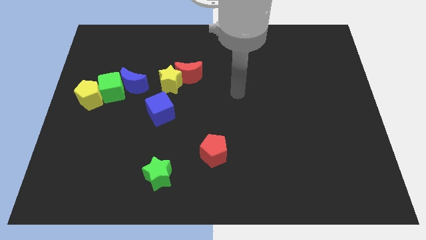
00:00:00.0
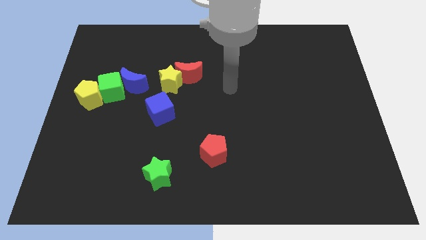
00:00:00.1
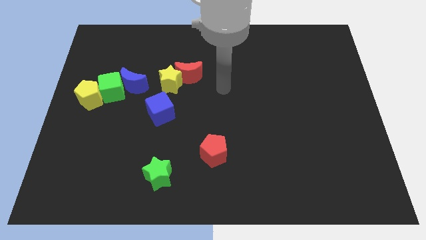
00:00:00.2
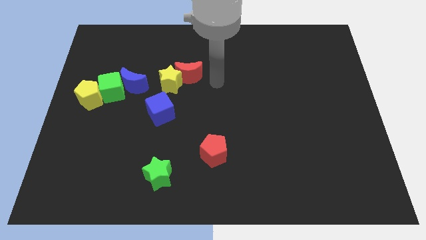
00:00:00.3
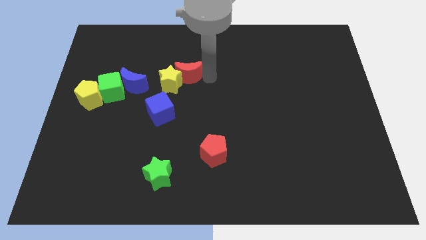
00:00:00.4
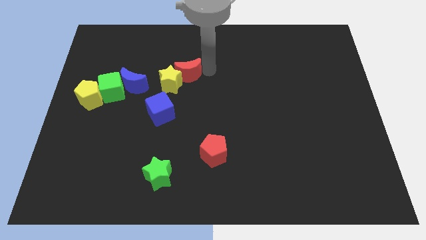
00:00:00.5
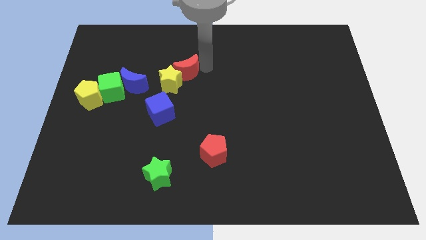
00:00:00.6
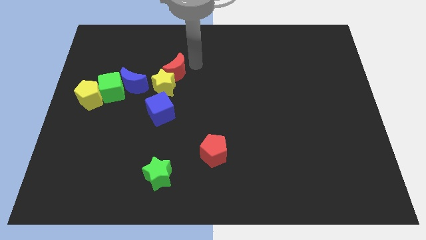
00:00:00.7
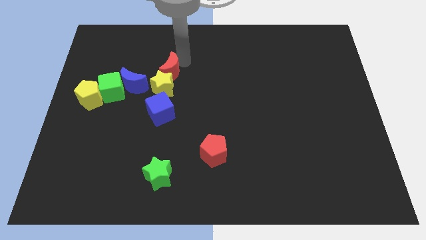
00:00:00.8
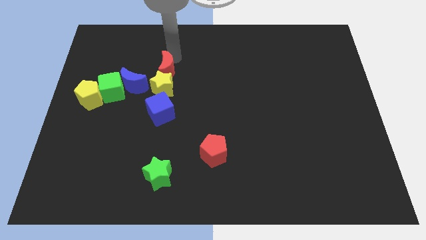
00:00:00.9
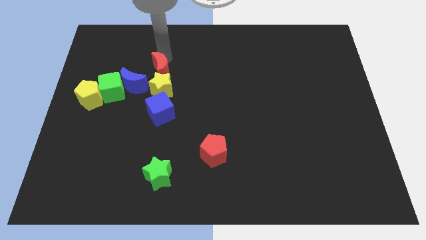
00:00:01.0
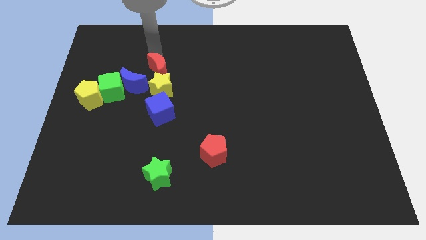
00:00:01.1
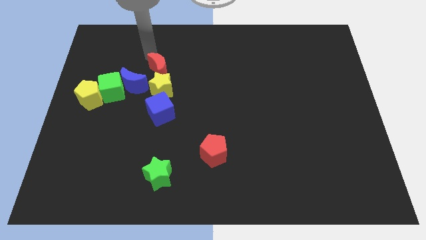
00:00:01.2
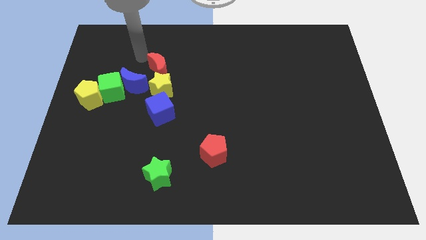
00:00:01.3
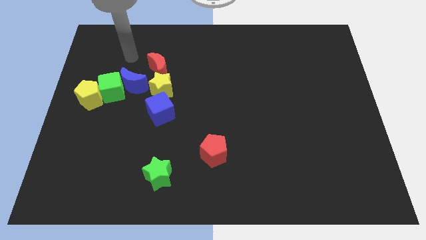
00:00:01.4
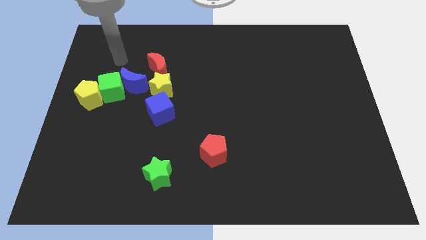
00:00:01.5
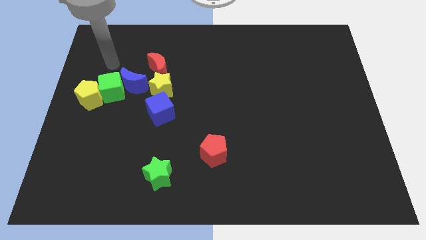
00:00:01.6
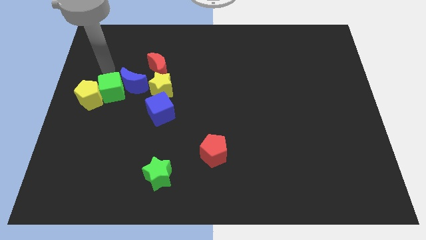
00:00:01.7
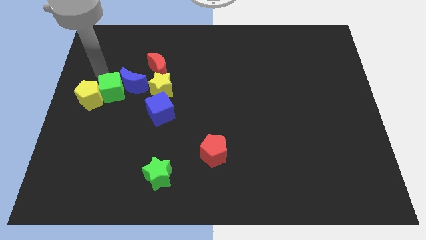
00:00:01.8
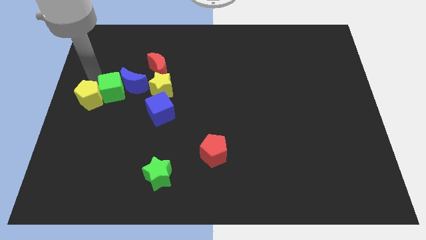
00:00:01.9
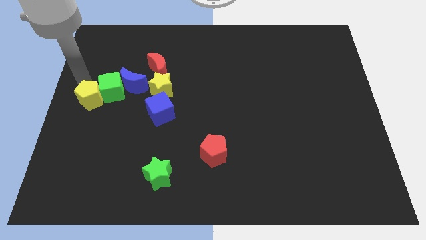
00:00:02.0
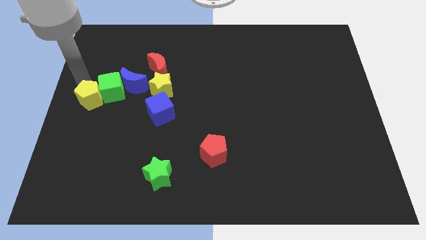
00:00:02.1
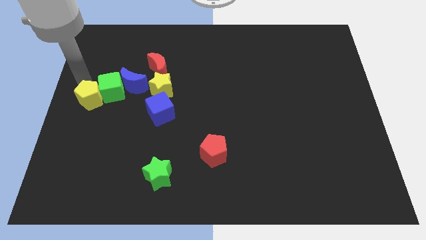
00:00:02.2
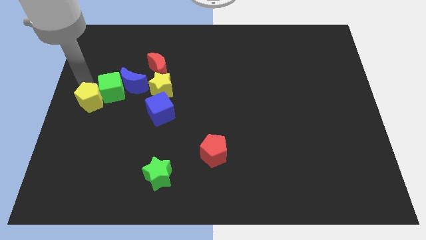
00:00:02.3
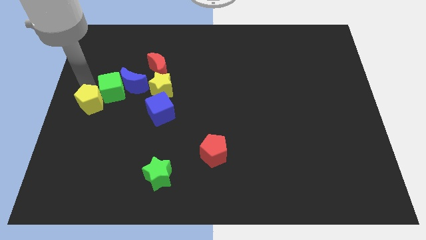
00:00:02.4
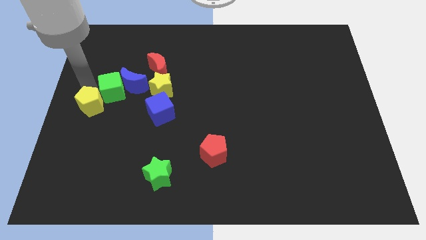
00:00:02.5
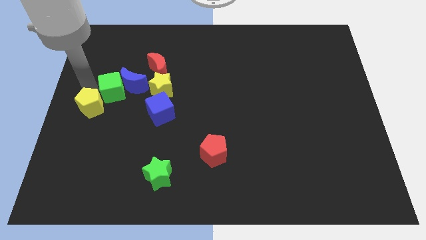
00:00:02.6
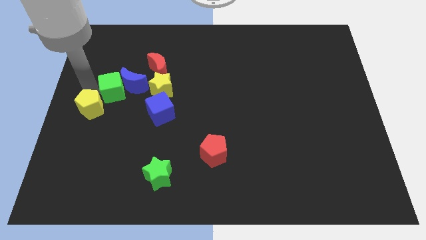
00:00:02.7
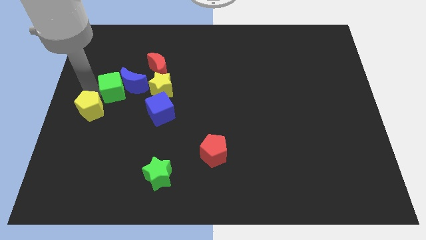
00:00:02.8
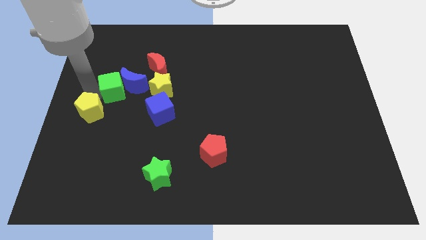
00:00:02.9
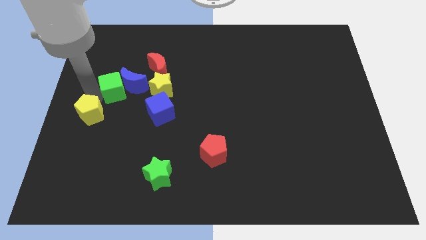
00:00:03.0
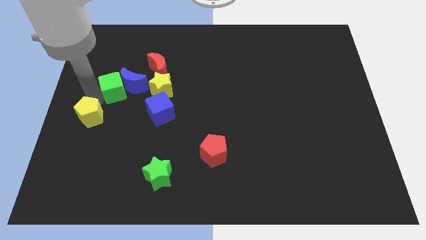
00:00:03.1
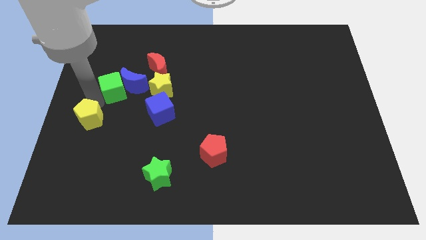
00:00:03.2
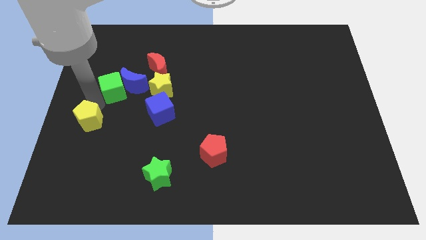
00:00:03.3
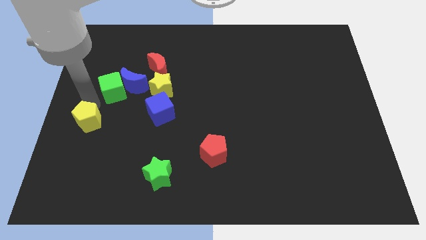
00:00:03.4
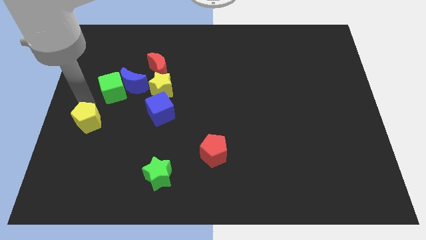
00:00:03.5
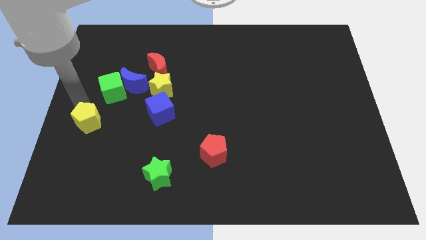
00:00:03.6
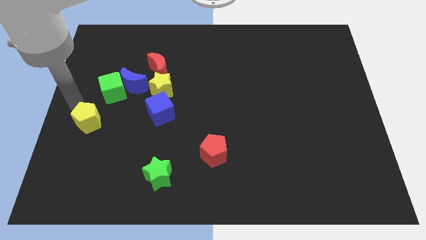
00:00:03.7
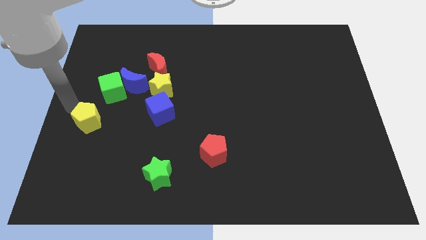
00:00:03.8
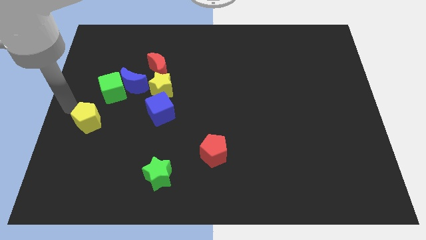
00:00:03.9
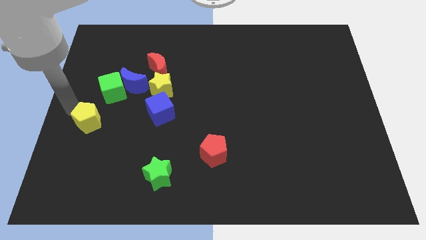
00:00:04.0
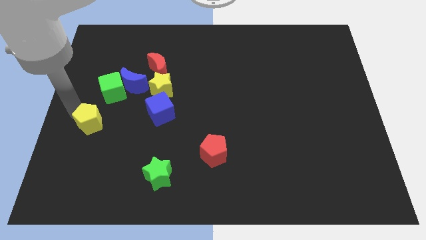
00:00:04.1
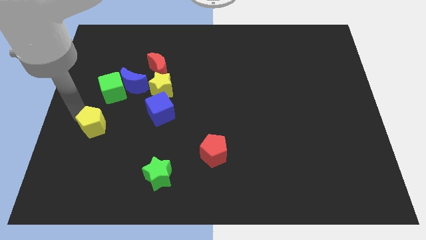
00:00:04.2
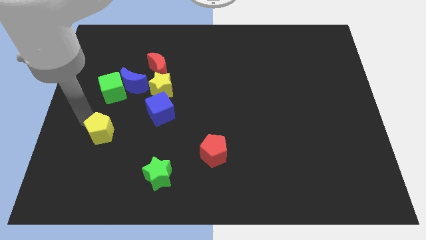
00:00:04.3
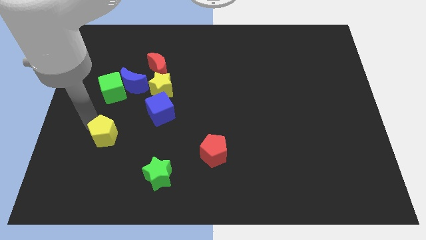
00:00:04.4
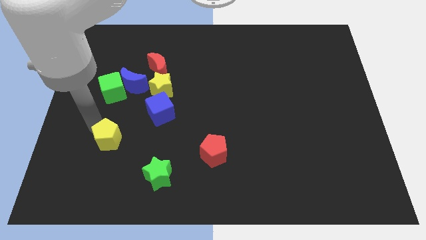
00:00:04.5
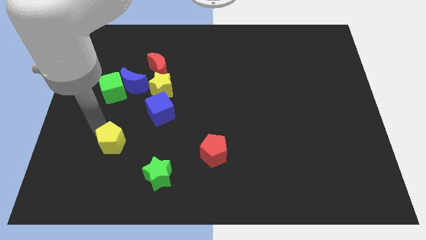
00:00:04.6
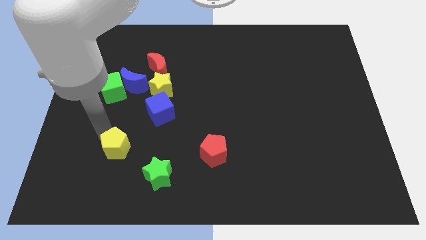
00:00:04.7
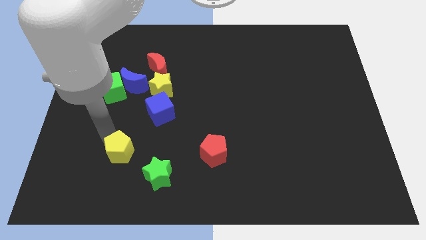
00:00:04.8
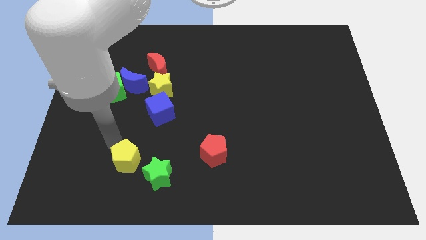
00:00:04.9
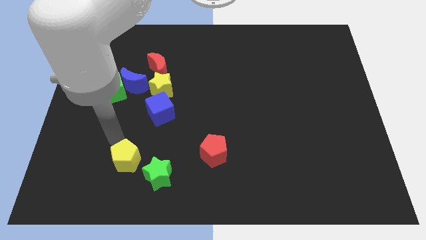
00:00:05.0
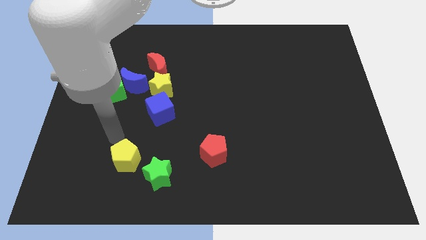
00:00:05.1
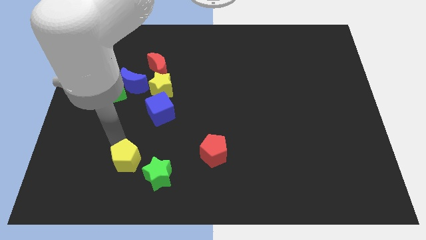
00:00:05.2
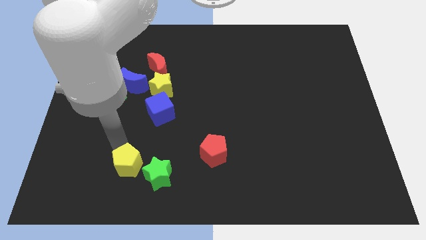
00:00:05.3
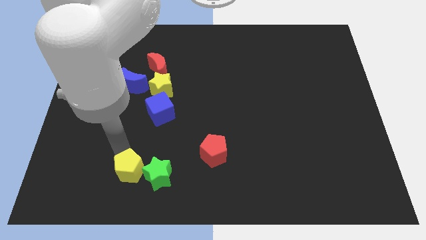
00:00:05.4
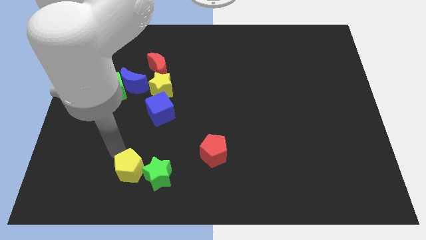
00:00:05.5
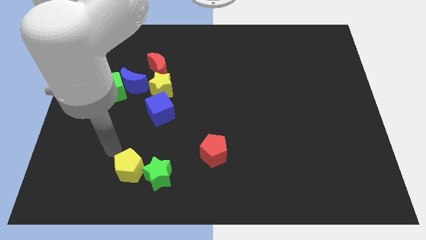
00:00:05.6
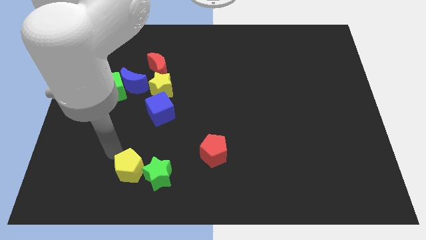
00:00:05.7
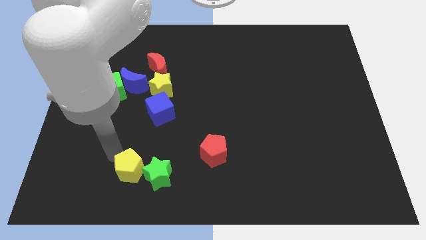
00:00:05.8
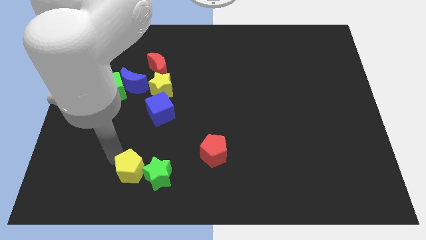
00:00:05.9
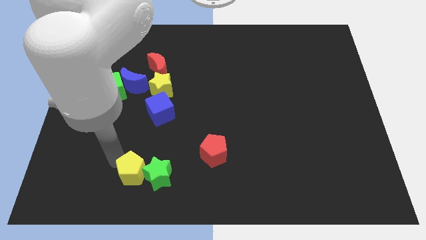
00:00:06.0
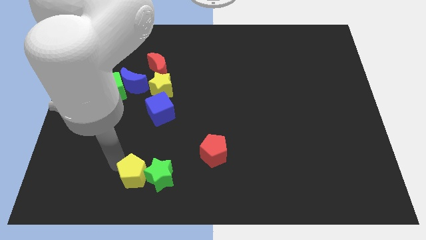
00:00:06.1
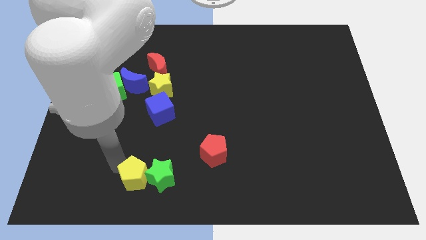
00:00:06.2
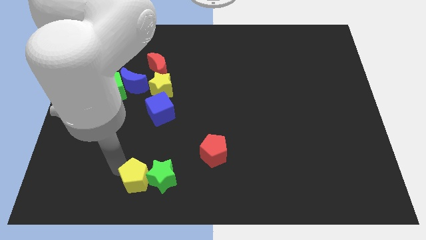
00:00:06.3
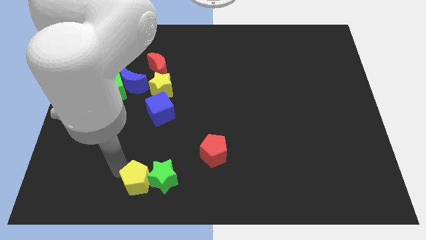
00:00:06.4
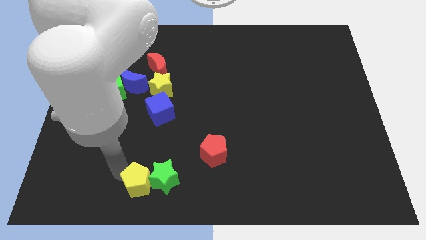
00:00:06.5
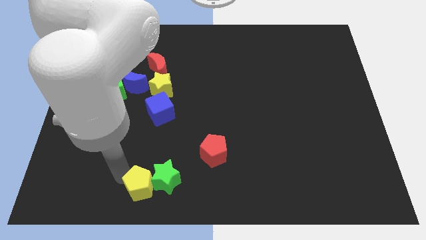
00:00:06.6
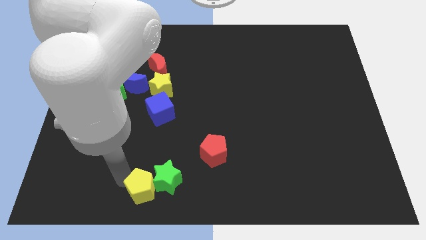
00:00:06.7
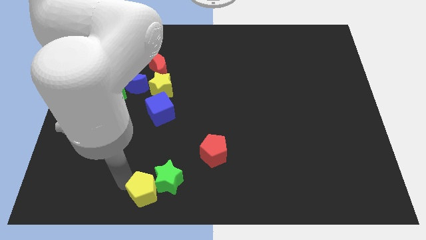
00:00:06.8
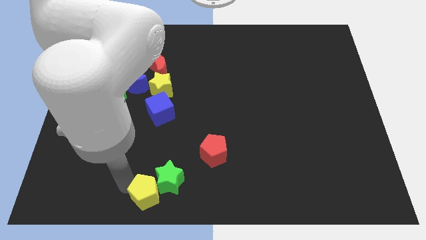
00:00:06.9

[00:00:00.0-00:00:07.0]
push the yellow pentagon to the bottom

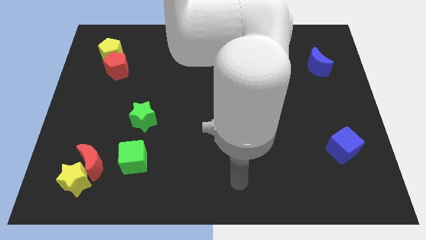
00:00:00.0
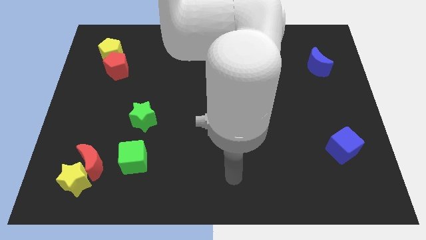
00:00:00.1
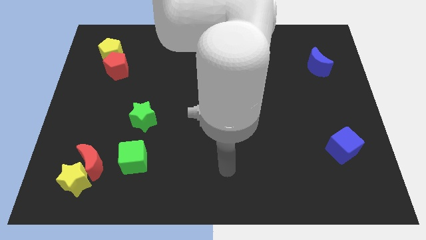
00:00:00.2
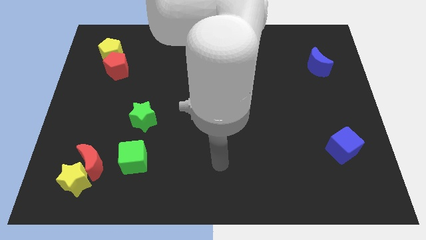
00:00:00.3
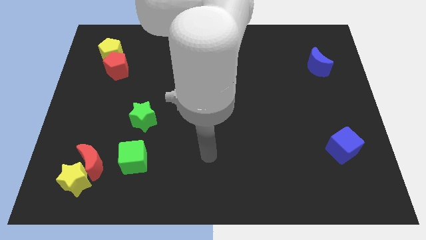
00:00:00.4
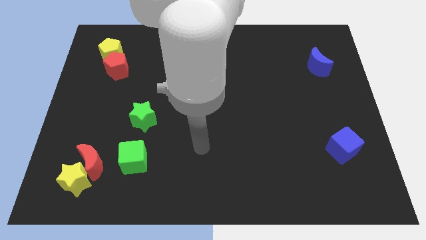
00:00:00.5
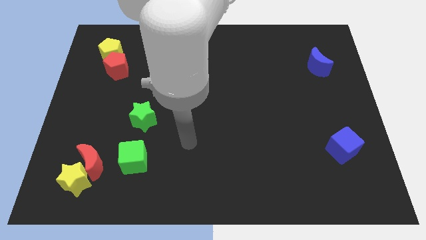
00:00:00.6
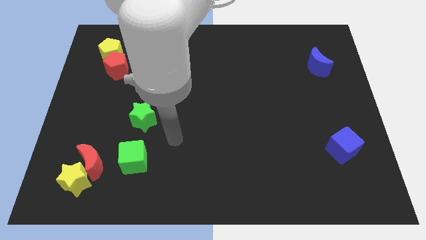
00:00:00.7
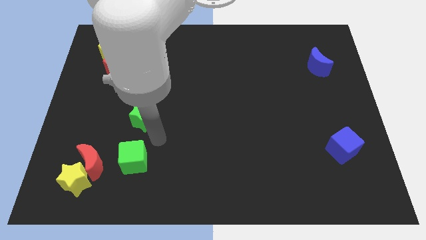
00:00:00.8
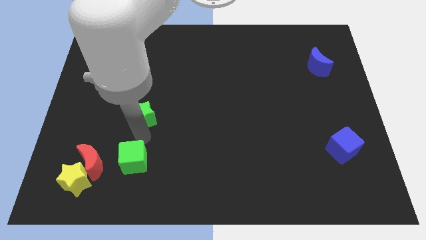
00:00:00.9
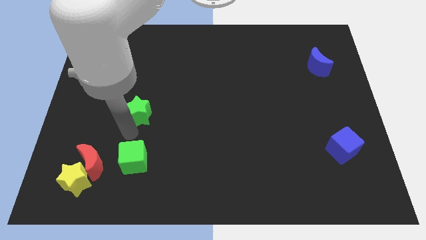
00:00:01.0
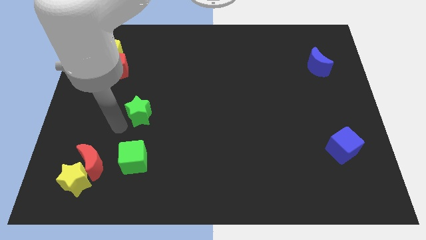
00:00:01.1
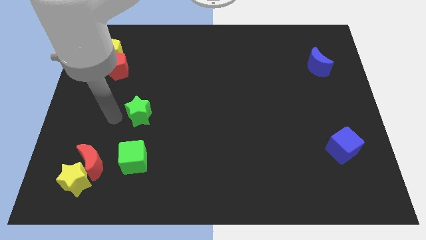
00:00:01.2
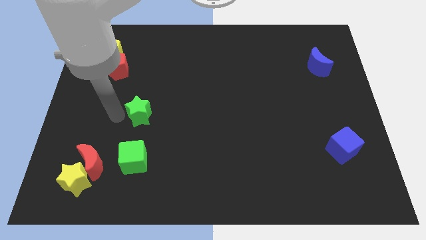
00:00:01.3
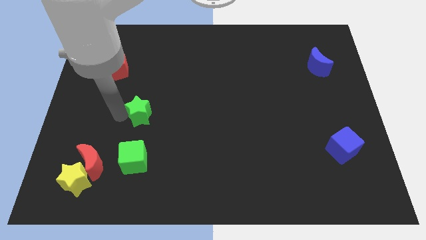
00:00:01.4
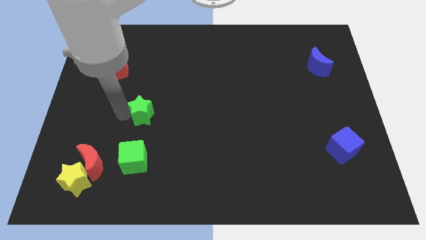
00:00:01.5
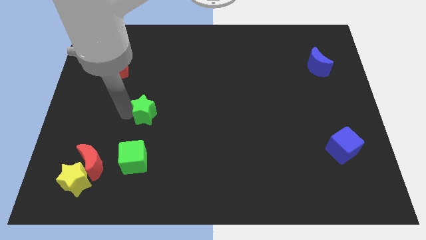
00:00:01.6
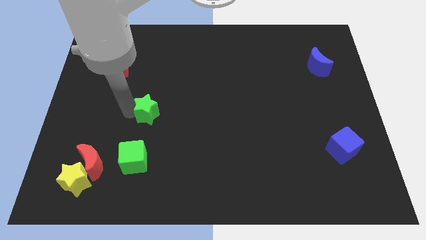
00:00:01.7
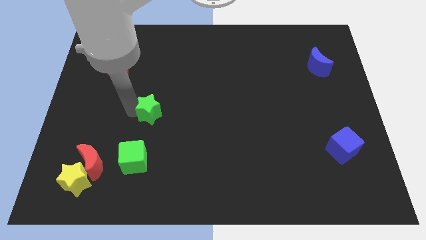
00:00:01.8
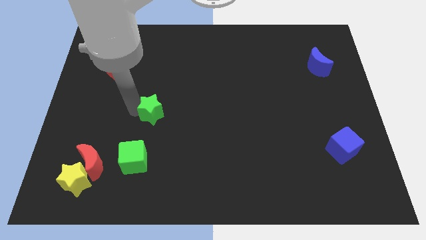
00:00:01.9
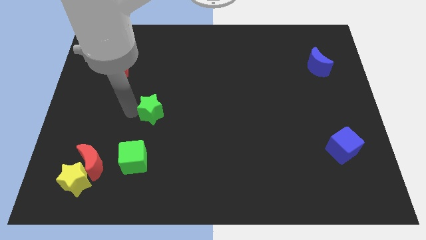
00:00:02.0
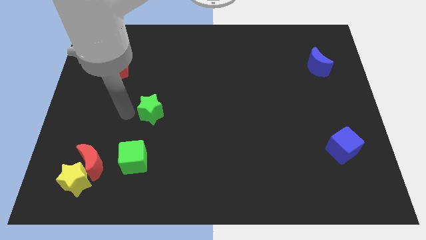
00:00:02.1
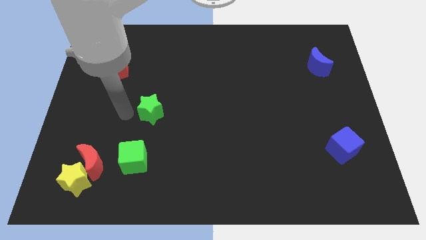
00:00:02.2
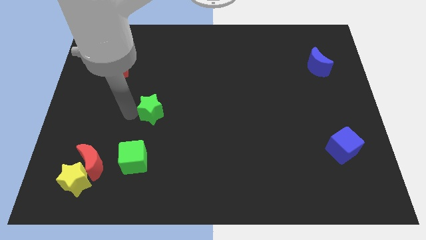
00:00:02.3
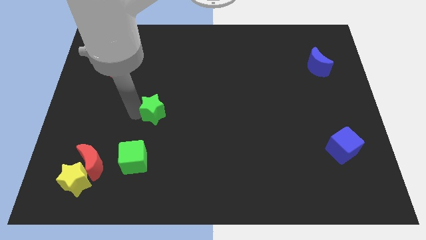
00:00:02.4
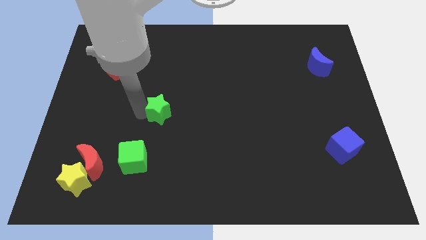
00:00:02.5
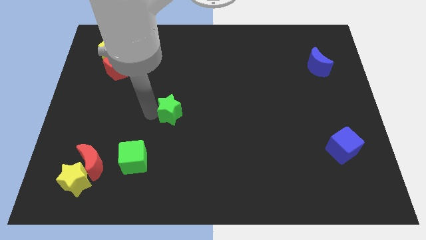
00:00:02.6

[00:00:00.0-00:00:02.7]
move the green star to the center
